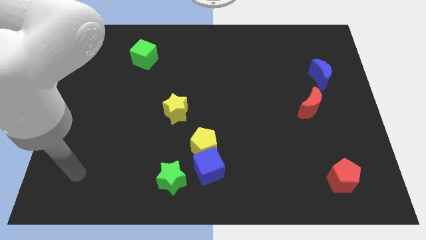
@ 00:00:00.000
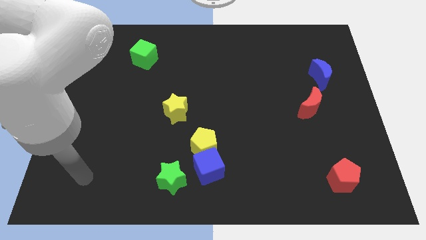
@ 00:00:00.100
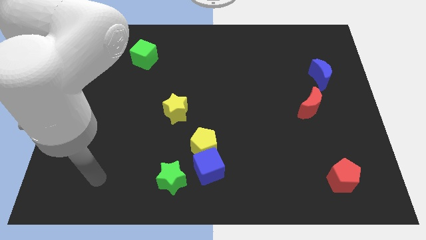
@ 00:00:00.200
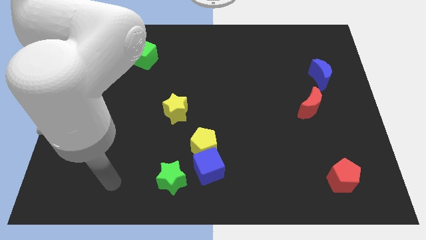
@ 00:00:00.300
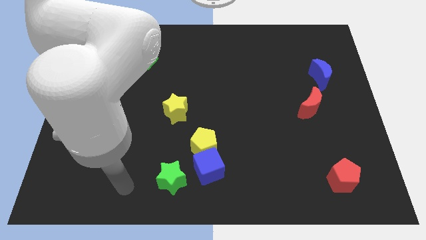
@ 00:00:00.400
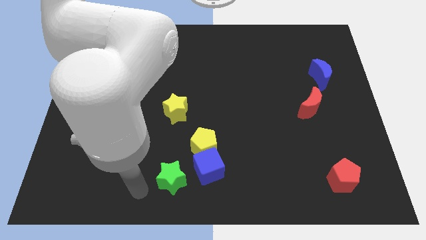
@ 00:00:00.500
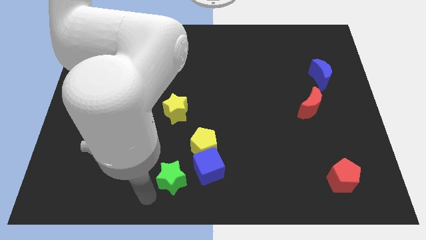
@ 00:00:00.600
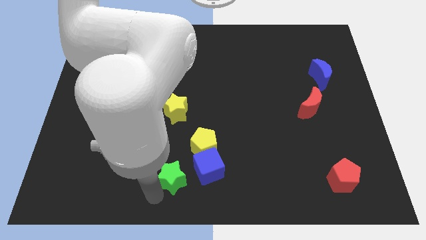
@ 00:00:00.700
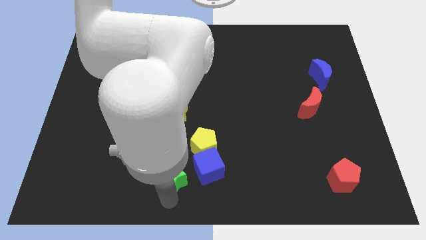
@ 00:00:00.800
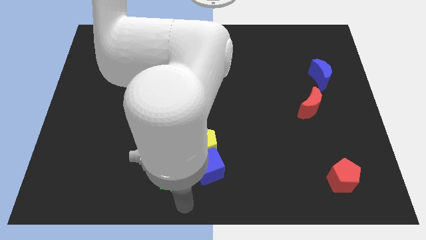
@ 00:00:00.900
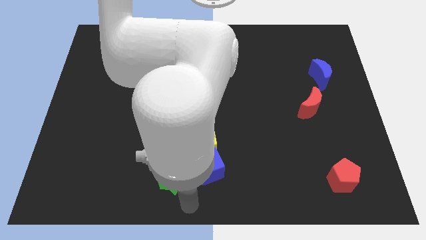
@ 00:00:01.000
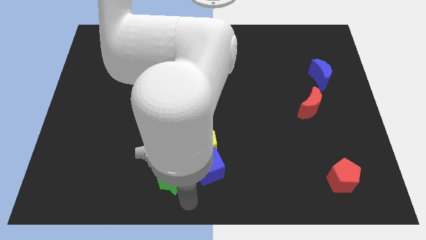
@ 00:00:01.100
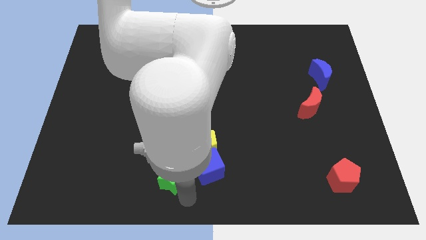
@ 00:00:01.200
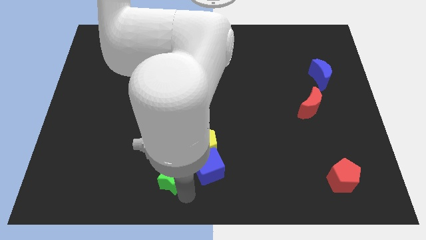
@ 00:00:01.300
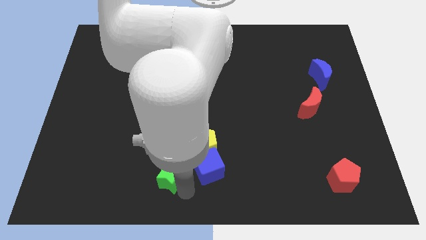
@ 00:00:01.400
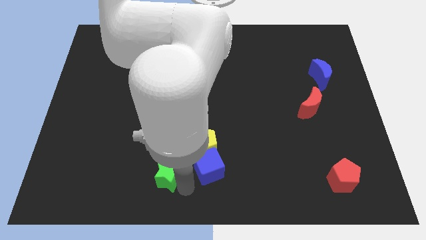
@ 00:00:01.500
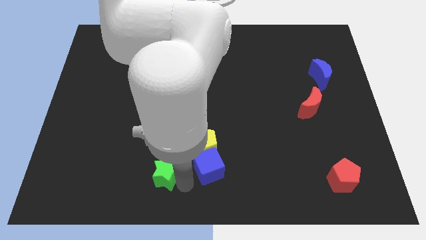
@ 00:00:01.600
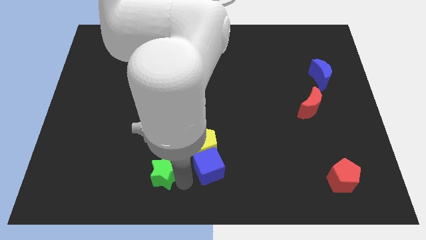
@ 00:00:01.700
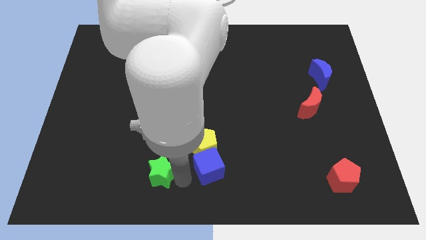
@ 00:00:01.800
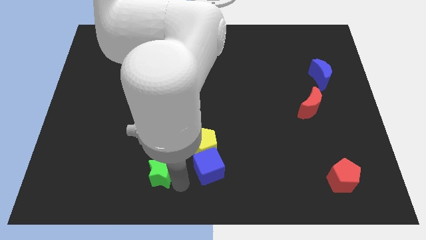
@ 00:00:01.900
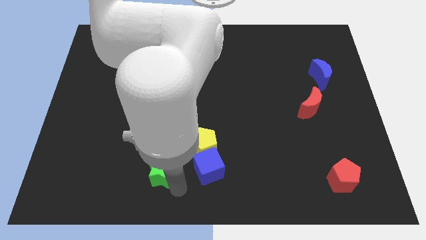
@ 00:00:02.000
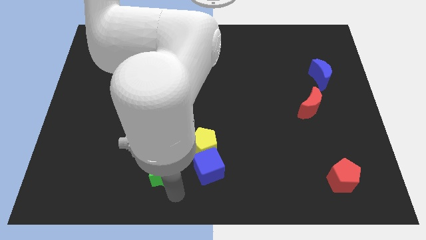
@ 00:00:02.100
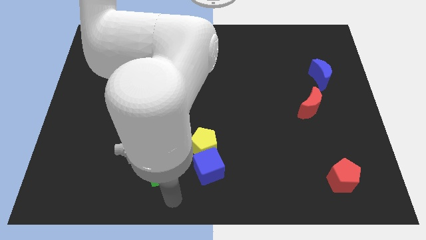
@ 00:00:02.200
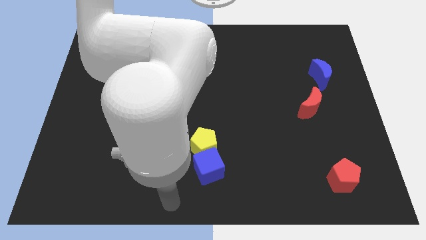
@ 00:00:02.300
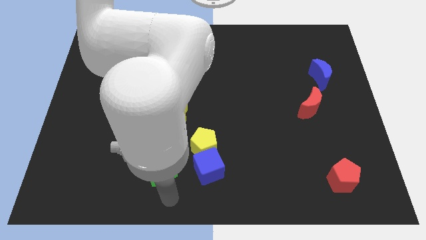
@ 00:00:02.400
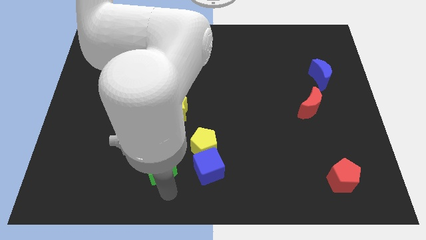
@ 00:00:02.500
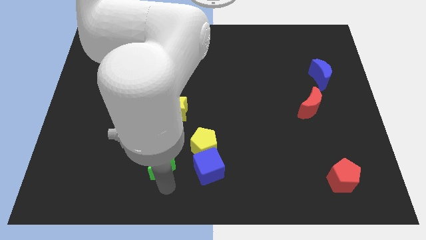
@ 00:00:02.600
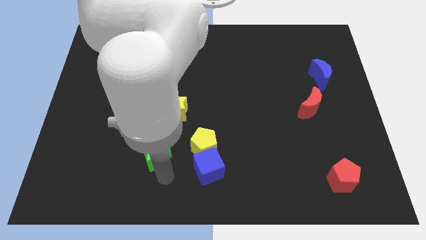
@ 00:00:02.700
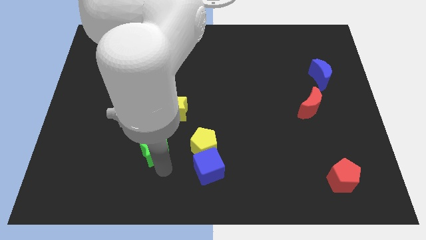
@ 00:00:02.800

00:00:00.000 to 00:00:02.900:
move the green star somewhat diagonally up and to the left

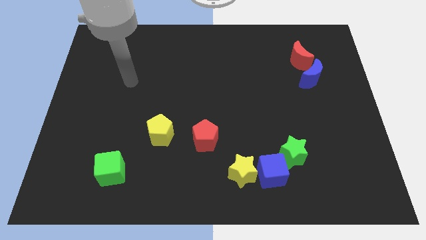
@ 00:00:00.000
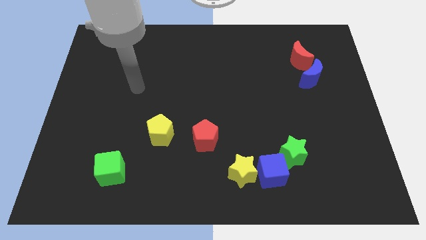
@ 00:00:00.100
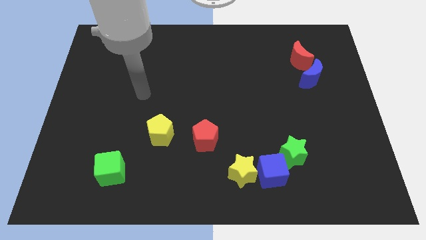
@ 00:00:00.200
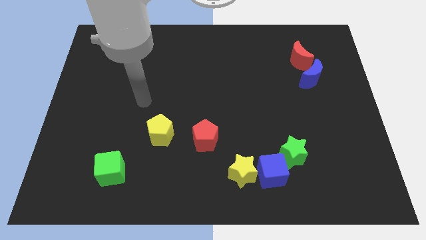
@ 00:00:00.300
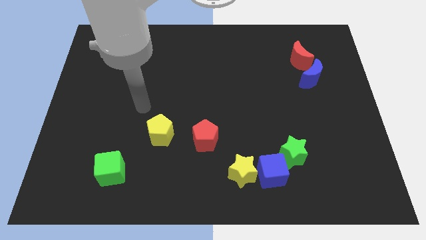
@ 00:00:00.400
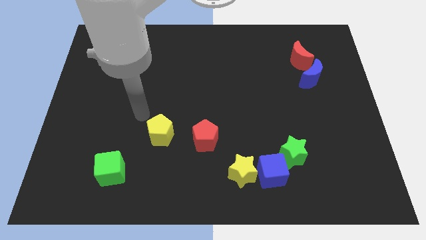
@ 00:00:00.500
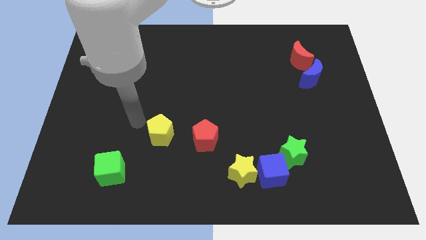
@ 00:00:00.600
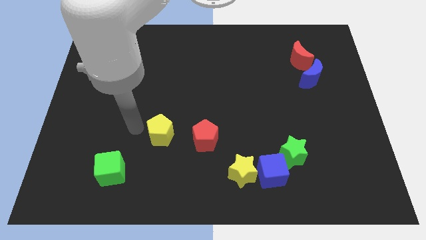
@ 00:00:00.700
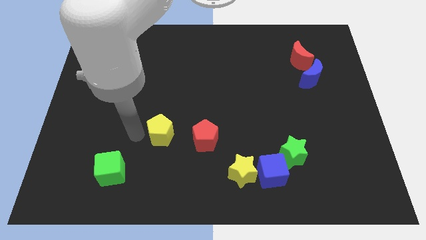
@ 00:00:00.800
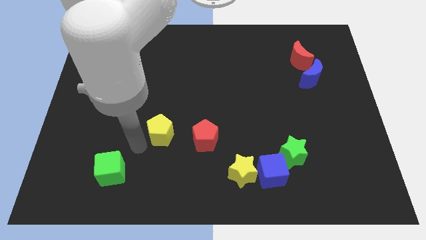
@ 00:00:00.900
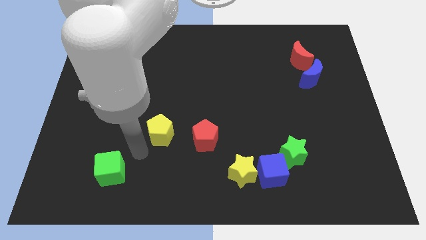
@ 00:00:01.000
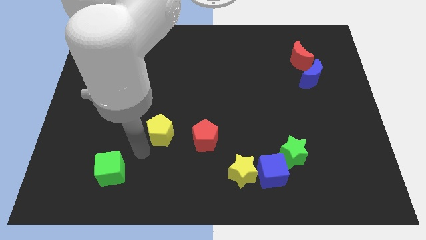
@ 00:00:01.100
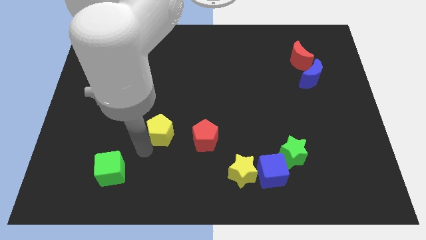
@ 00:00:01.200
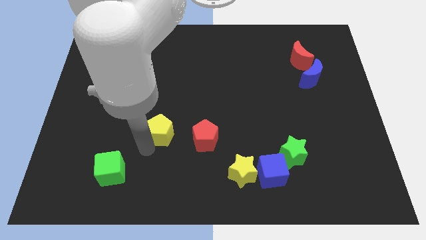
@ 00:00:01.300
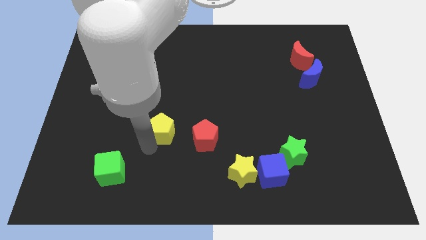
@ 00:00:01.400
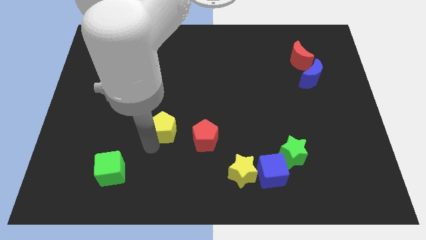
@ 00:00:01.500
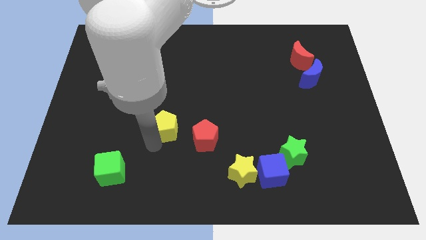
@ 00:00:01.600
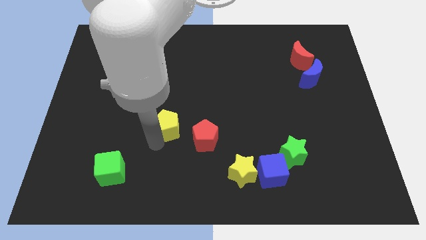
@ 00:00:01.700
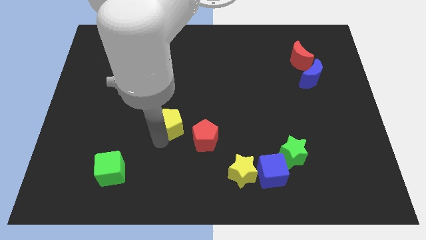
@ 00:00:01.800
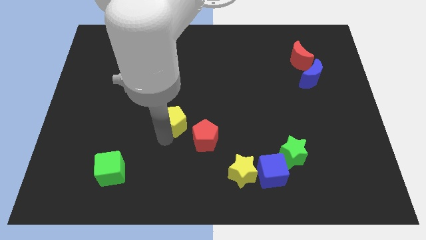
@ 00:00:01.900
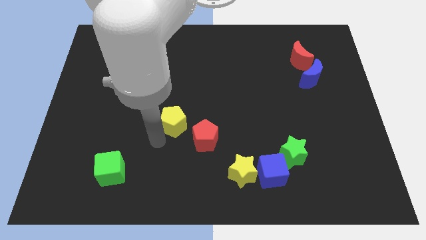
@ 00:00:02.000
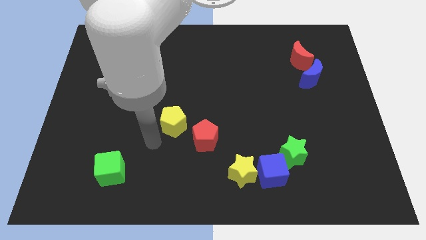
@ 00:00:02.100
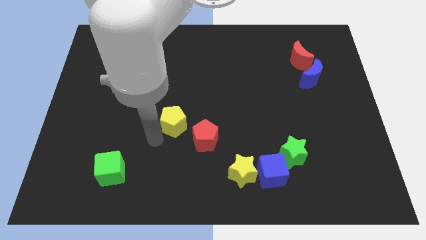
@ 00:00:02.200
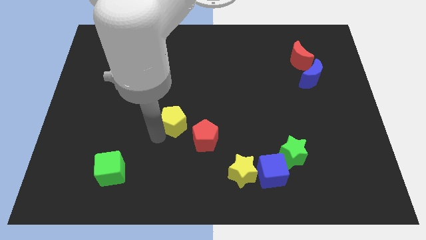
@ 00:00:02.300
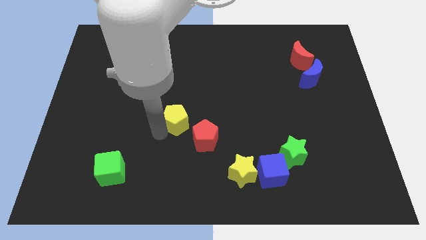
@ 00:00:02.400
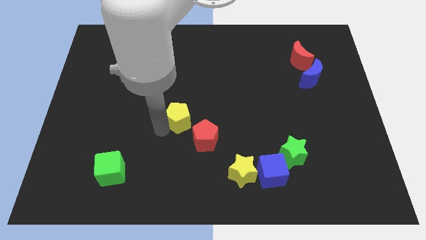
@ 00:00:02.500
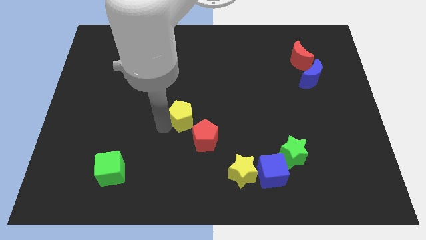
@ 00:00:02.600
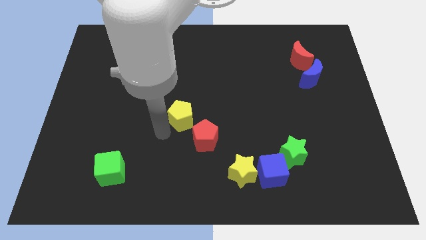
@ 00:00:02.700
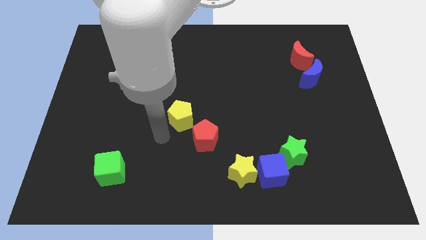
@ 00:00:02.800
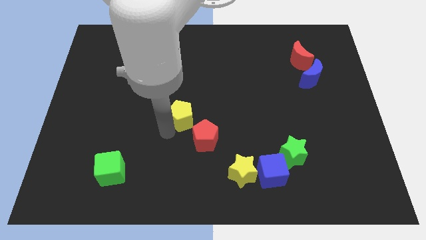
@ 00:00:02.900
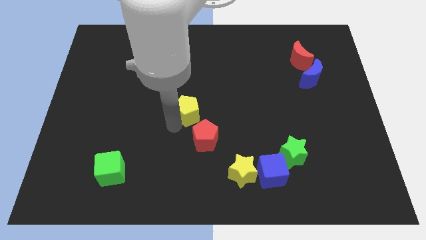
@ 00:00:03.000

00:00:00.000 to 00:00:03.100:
slide the yellow pentagon upwards and then right a bit

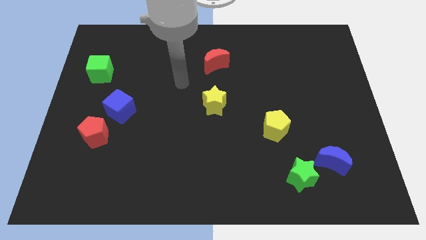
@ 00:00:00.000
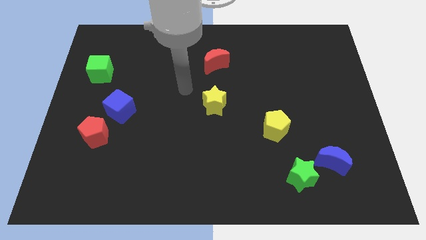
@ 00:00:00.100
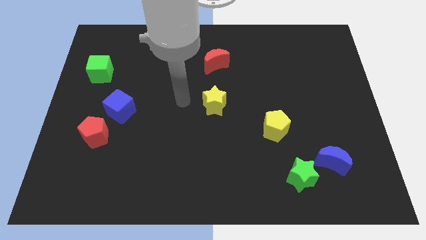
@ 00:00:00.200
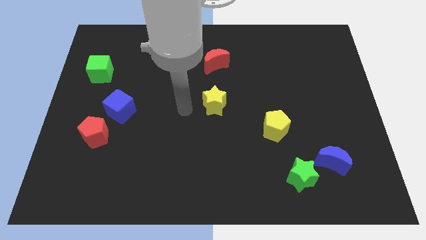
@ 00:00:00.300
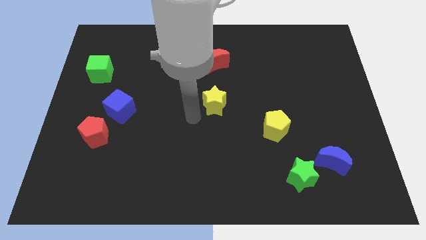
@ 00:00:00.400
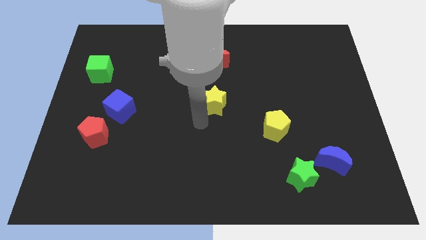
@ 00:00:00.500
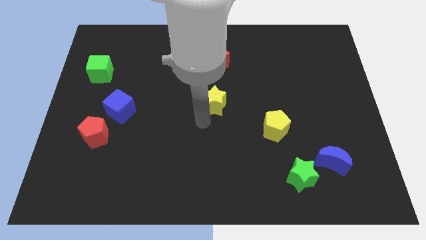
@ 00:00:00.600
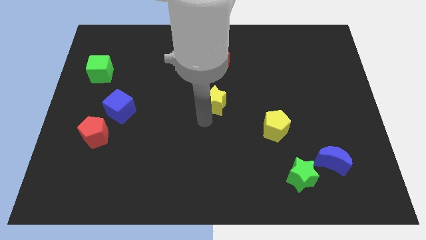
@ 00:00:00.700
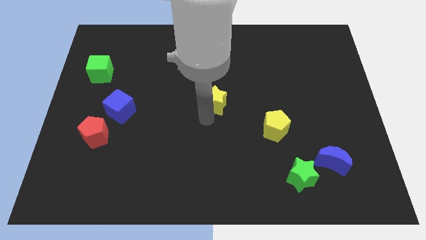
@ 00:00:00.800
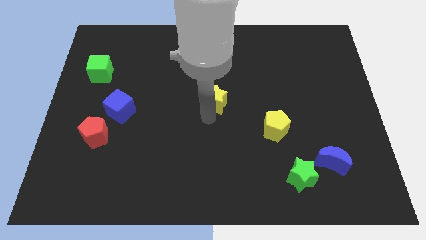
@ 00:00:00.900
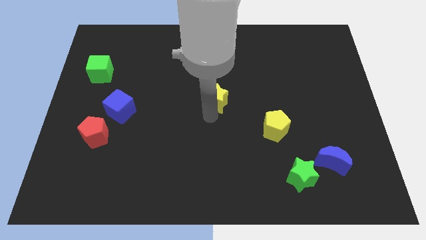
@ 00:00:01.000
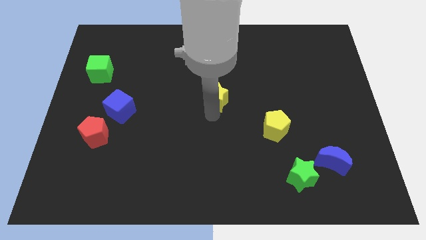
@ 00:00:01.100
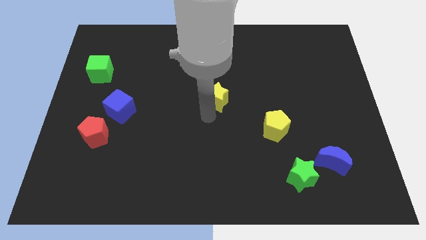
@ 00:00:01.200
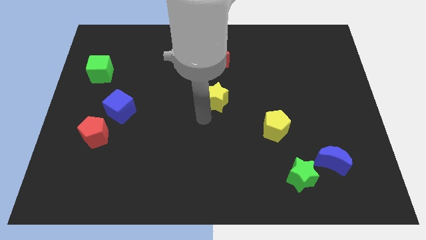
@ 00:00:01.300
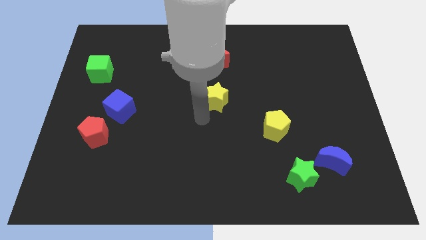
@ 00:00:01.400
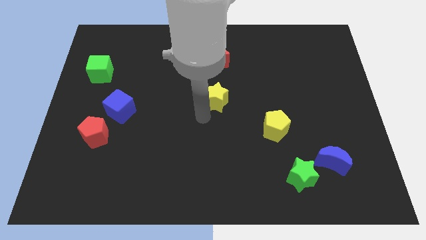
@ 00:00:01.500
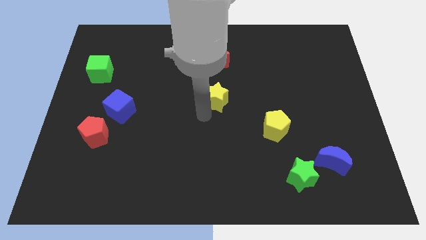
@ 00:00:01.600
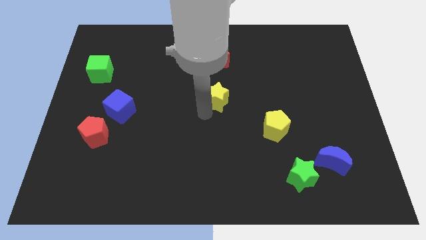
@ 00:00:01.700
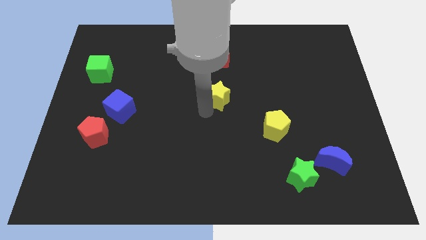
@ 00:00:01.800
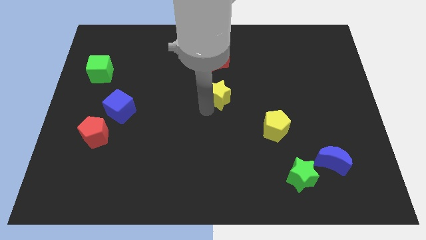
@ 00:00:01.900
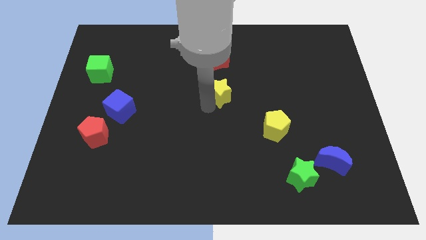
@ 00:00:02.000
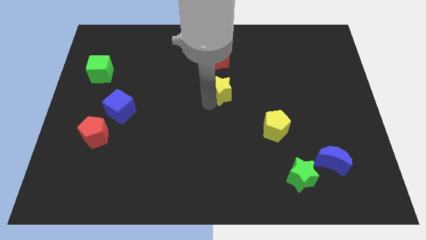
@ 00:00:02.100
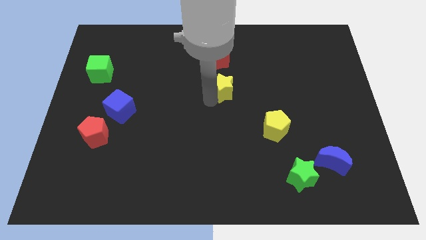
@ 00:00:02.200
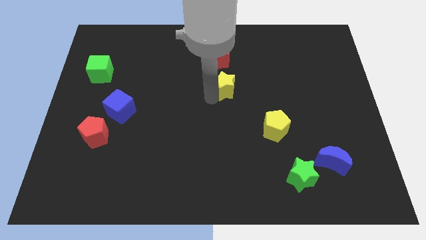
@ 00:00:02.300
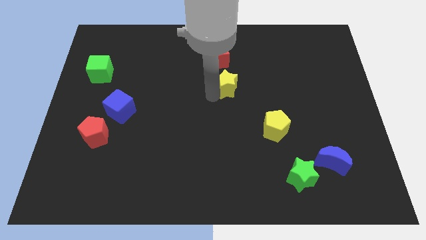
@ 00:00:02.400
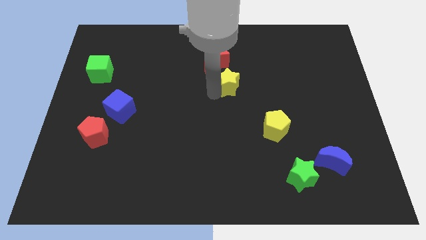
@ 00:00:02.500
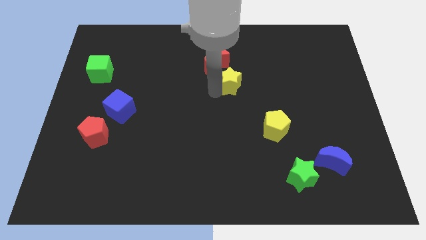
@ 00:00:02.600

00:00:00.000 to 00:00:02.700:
slide the yellow star diagonally up and right a little
